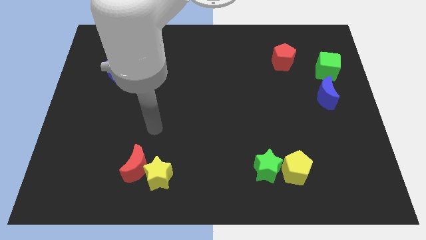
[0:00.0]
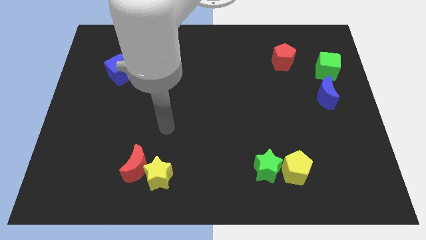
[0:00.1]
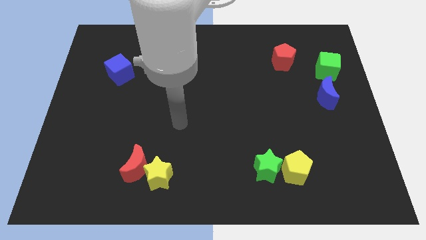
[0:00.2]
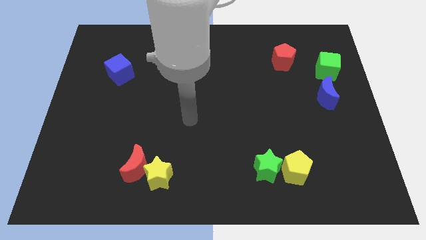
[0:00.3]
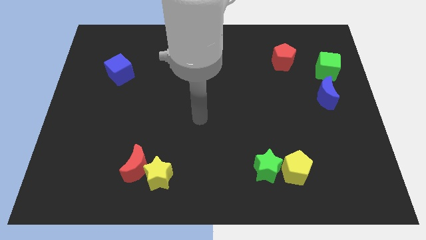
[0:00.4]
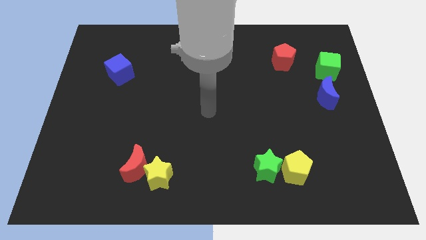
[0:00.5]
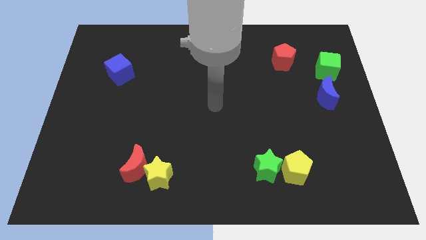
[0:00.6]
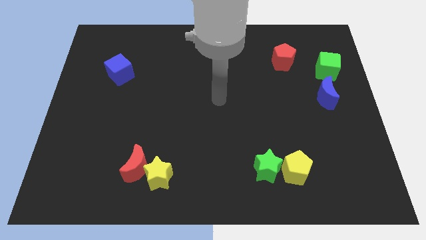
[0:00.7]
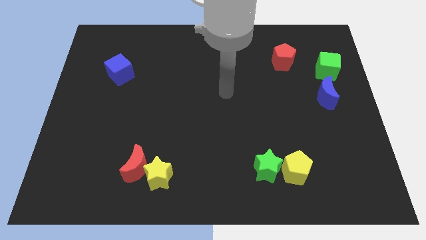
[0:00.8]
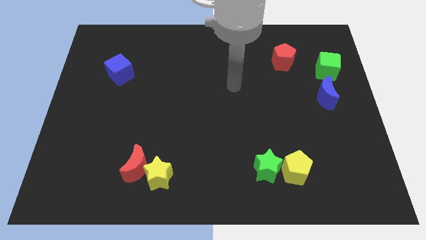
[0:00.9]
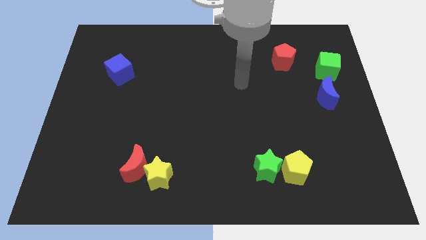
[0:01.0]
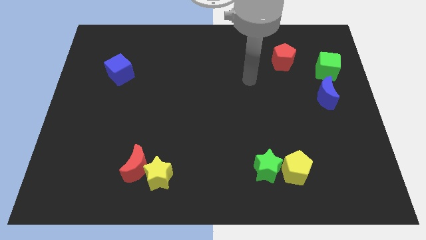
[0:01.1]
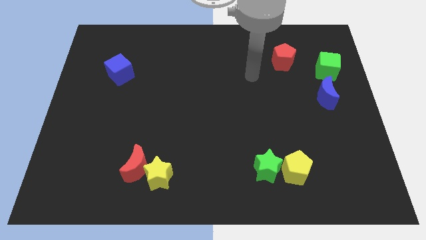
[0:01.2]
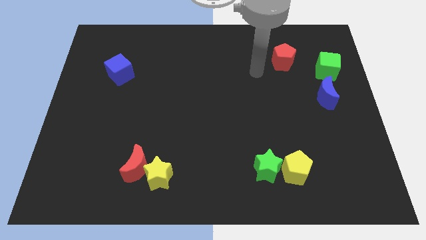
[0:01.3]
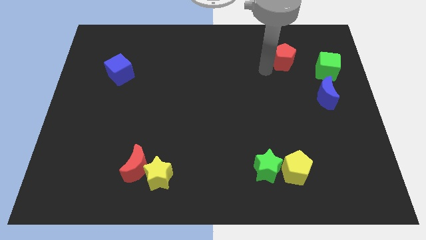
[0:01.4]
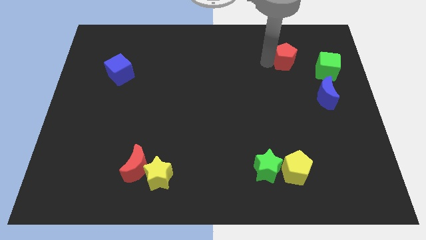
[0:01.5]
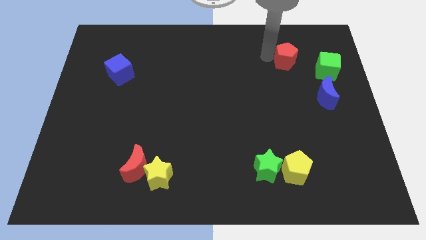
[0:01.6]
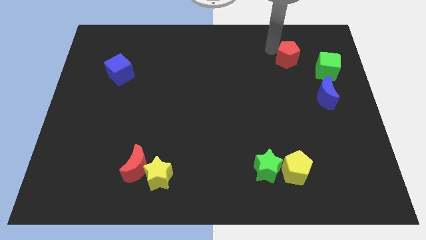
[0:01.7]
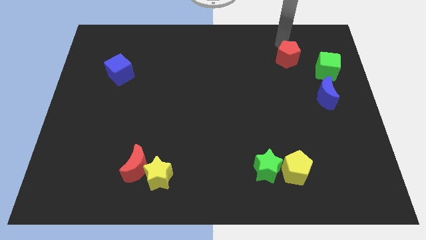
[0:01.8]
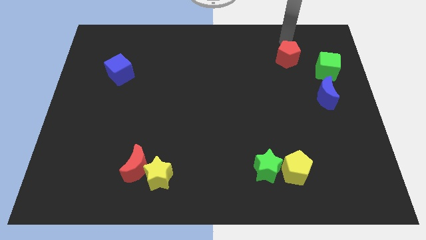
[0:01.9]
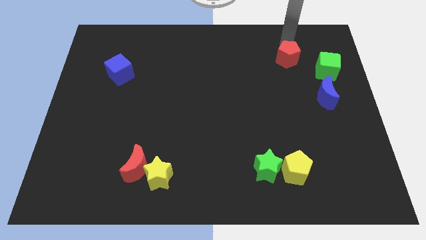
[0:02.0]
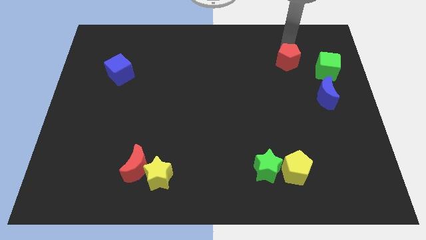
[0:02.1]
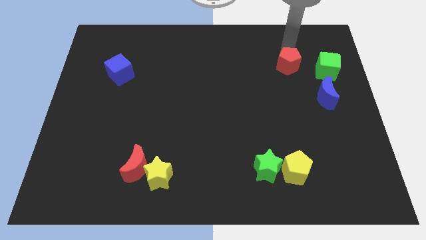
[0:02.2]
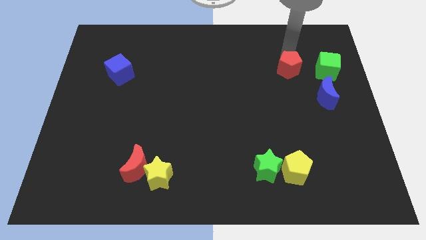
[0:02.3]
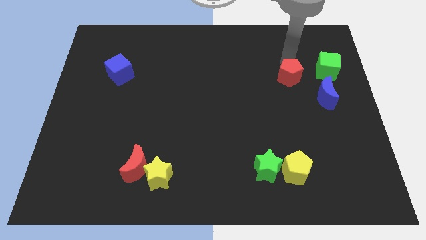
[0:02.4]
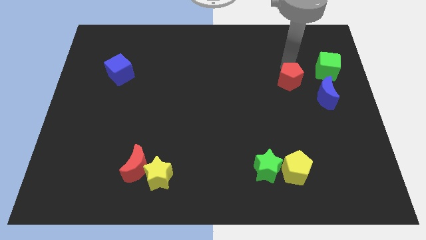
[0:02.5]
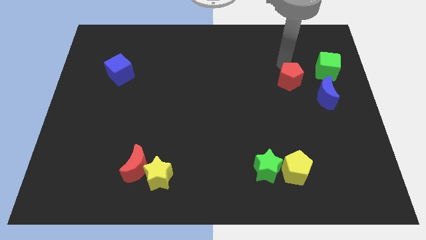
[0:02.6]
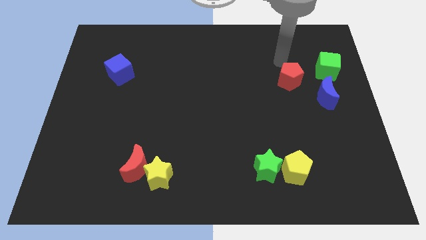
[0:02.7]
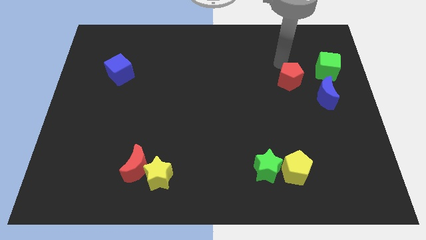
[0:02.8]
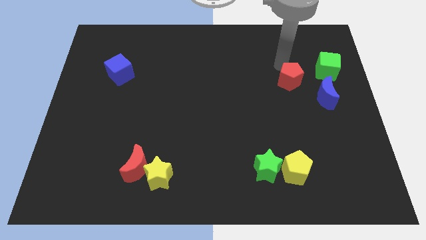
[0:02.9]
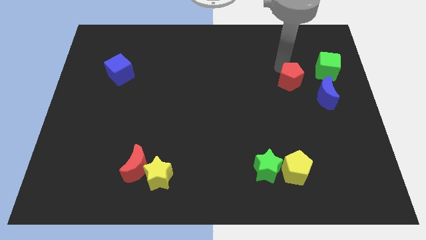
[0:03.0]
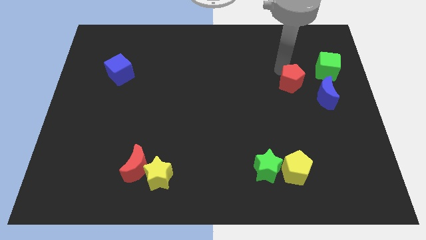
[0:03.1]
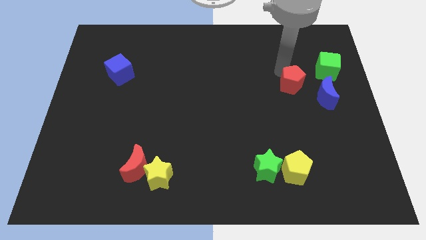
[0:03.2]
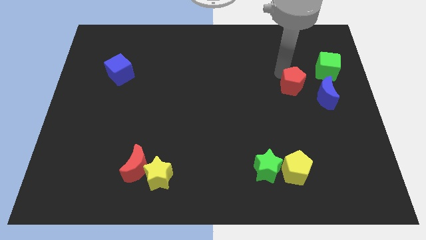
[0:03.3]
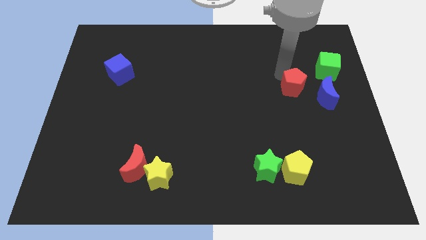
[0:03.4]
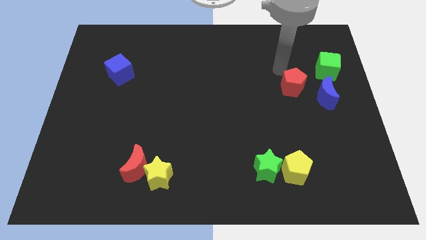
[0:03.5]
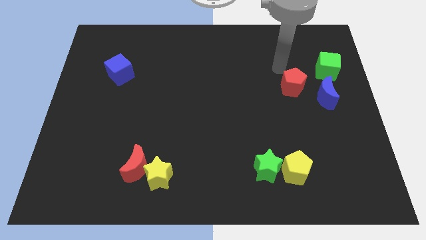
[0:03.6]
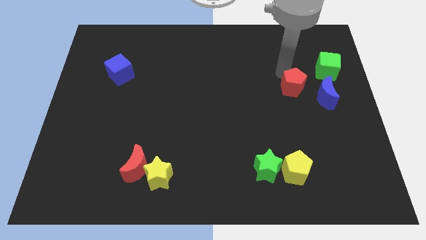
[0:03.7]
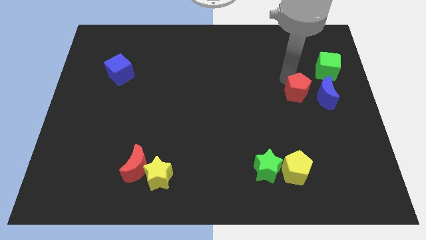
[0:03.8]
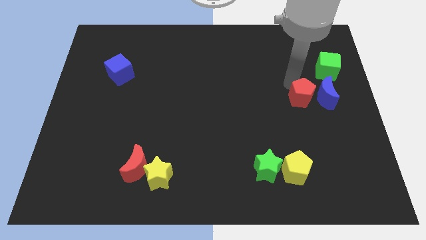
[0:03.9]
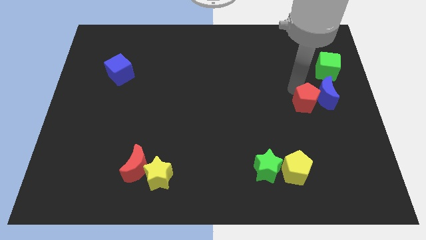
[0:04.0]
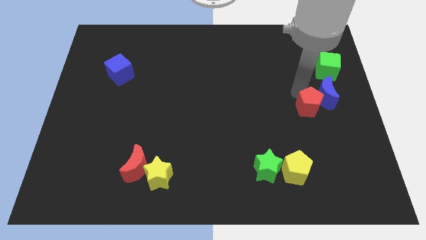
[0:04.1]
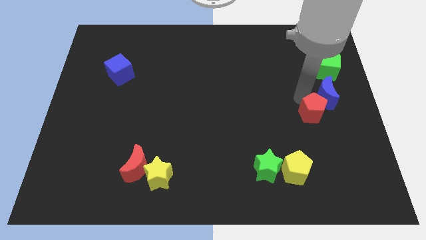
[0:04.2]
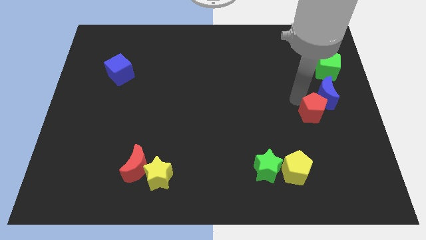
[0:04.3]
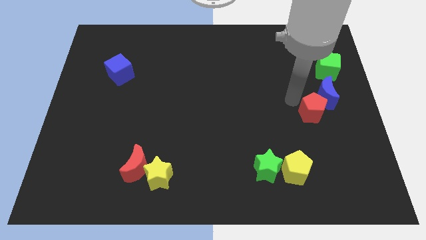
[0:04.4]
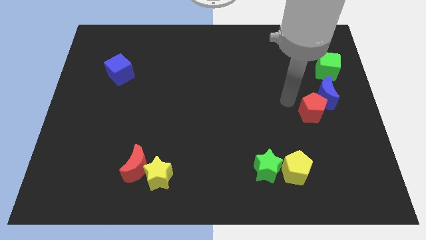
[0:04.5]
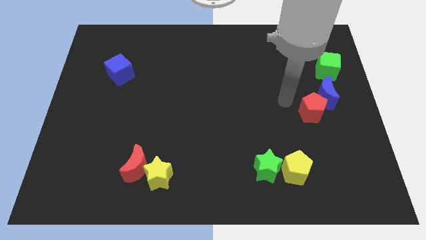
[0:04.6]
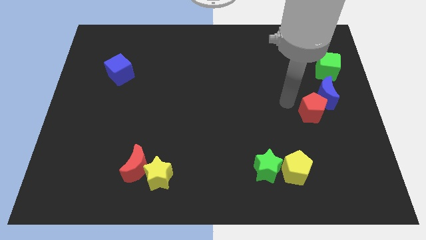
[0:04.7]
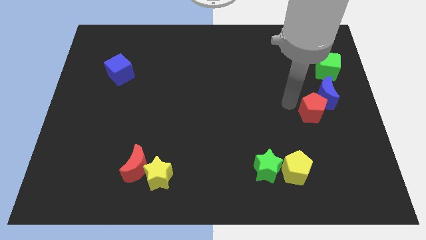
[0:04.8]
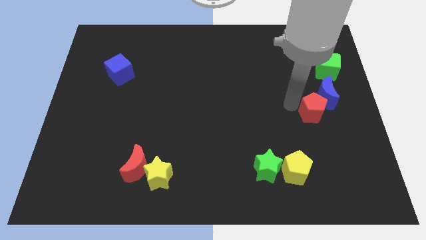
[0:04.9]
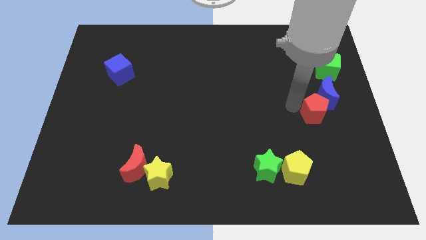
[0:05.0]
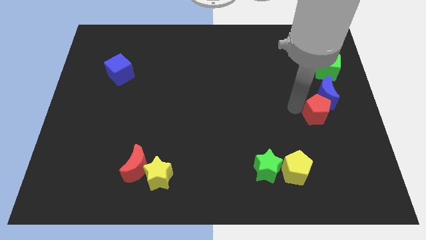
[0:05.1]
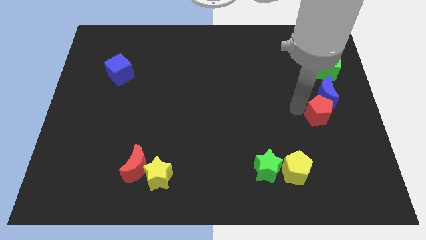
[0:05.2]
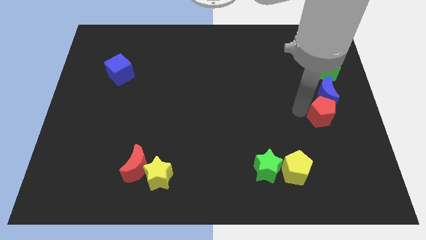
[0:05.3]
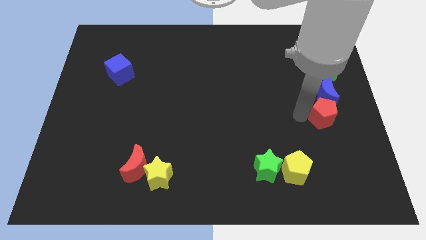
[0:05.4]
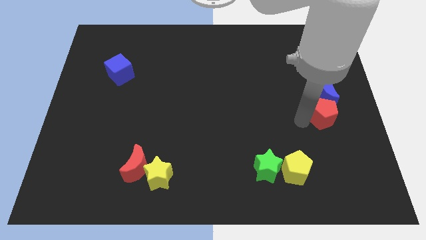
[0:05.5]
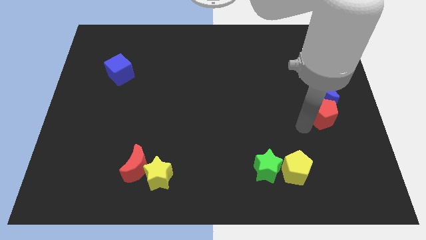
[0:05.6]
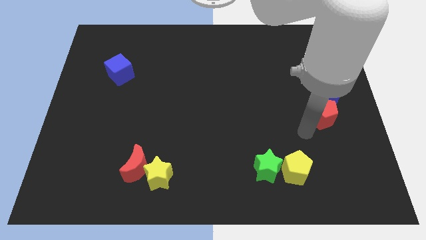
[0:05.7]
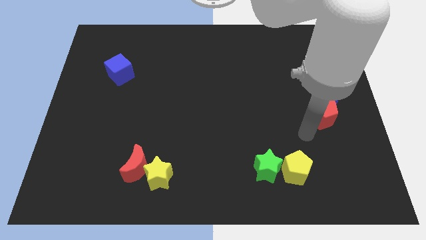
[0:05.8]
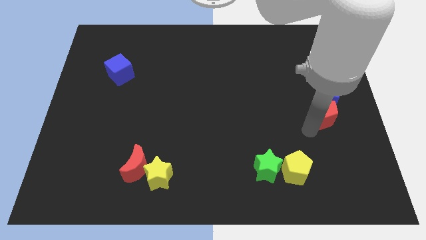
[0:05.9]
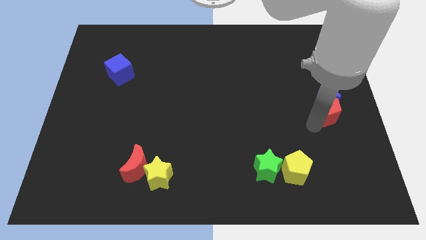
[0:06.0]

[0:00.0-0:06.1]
slide the red pentagon to the bottom side of the green cube

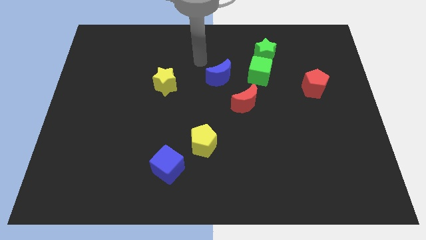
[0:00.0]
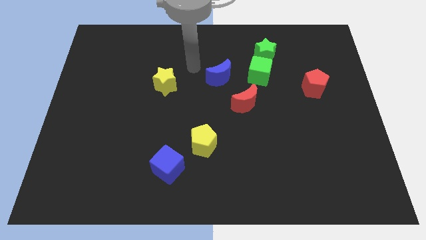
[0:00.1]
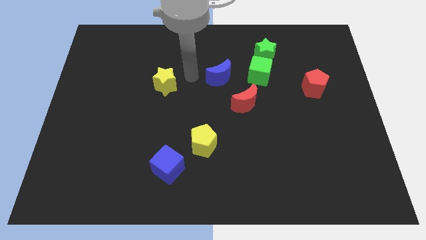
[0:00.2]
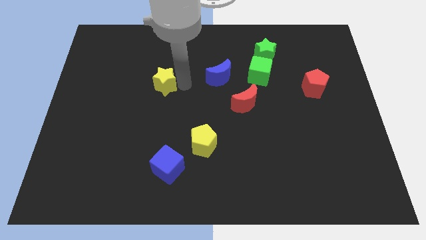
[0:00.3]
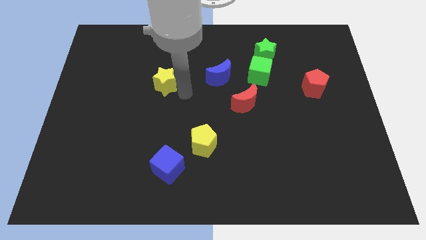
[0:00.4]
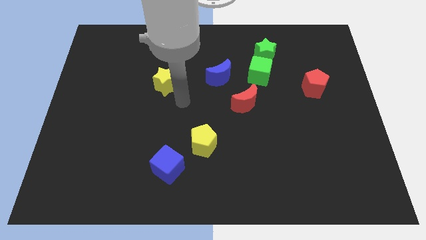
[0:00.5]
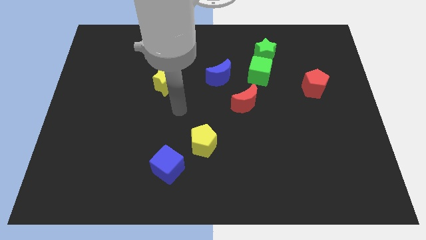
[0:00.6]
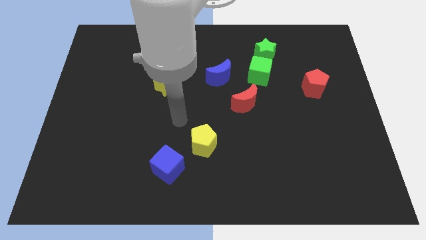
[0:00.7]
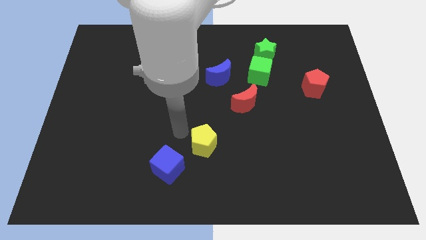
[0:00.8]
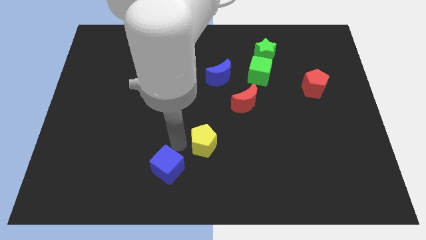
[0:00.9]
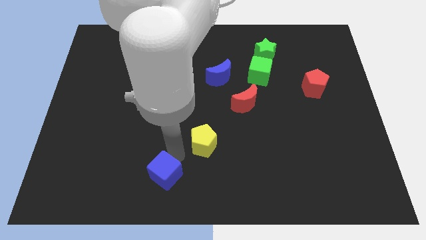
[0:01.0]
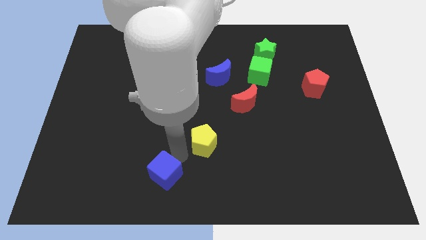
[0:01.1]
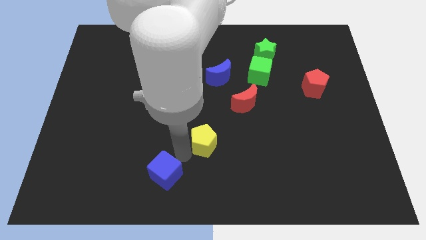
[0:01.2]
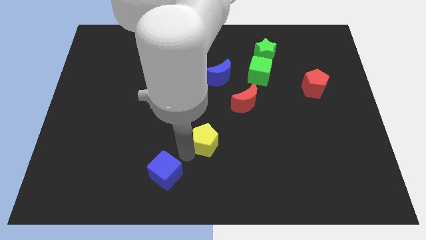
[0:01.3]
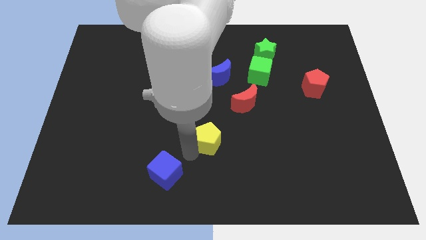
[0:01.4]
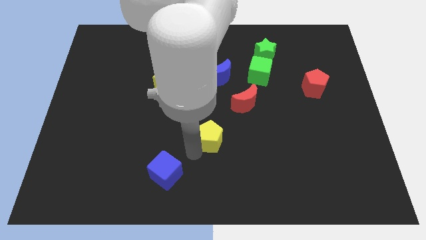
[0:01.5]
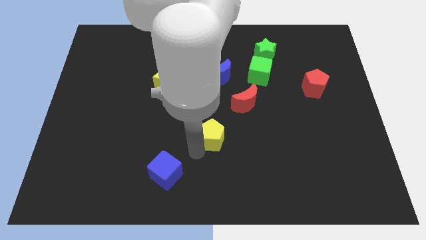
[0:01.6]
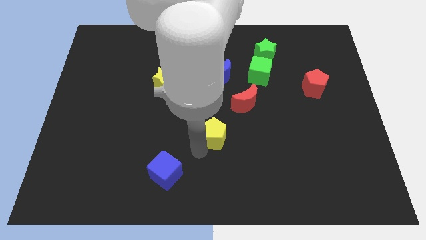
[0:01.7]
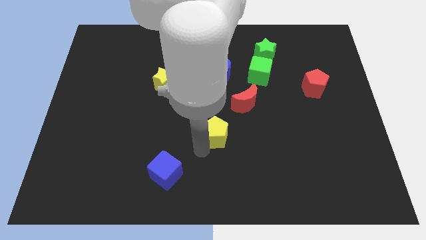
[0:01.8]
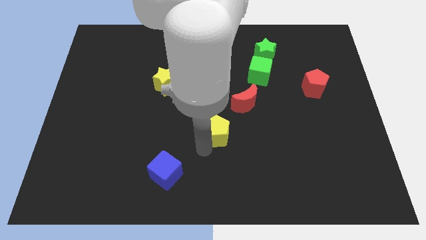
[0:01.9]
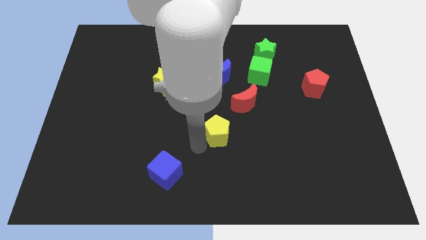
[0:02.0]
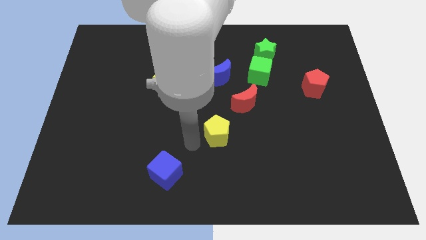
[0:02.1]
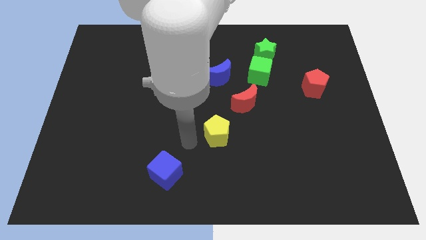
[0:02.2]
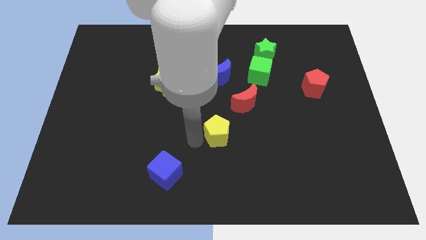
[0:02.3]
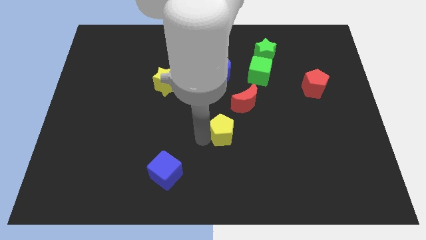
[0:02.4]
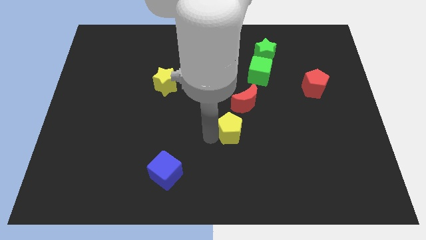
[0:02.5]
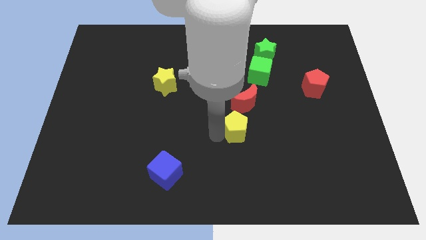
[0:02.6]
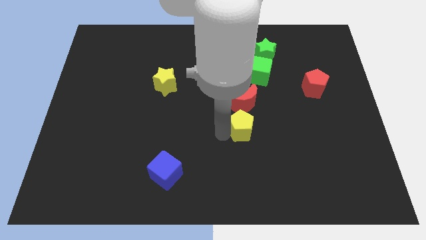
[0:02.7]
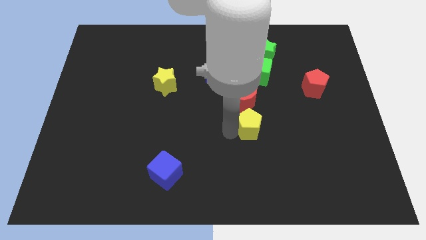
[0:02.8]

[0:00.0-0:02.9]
put the yellow pentagon to the bottom right of the red moon
